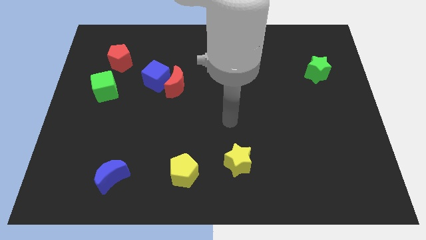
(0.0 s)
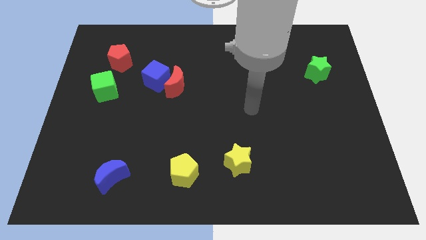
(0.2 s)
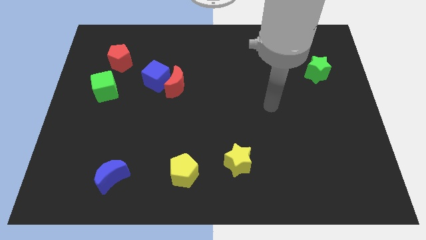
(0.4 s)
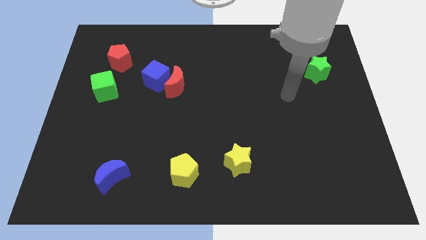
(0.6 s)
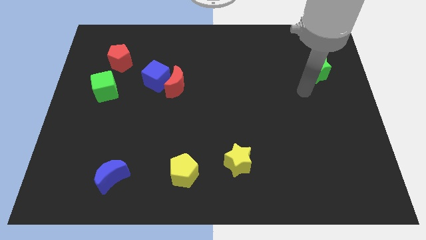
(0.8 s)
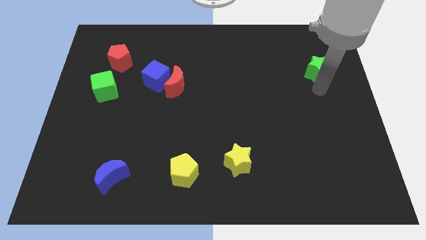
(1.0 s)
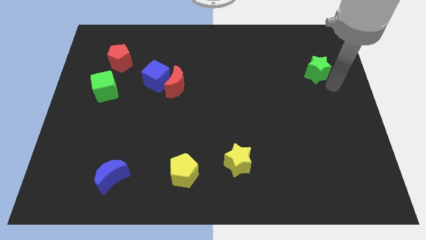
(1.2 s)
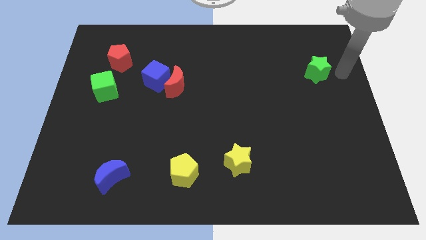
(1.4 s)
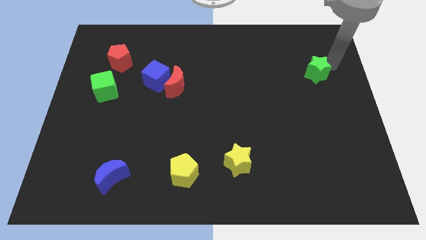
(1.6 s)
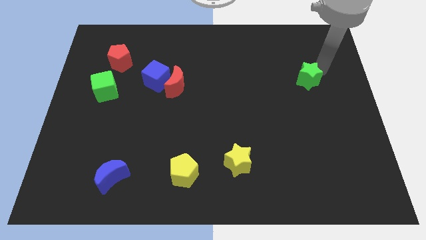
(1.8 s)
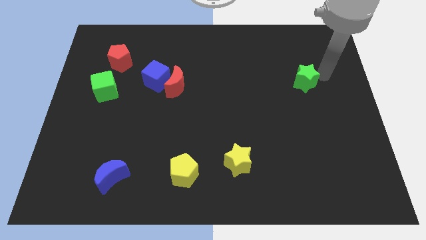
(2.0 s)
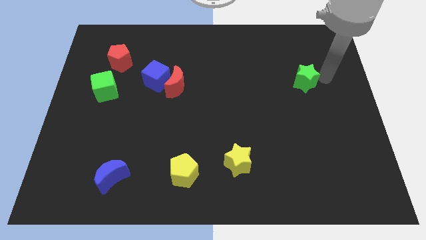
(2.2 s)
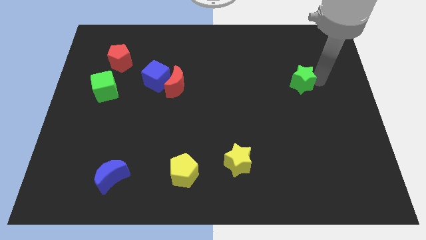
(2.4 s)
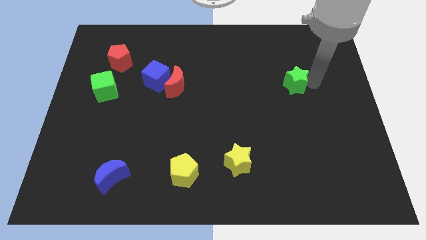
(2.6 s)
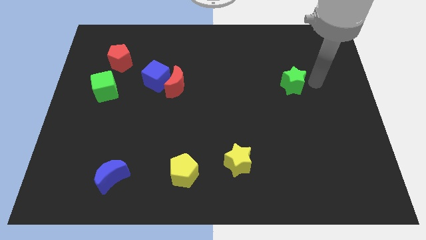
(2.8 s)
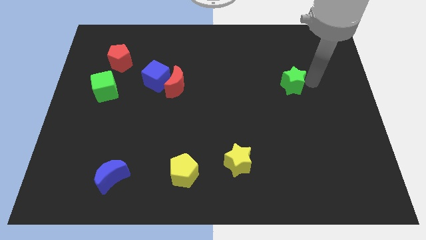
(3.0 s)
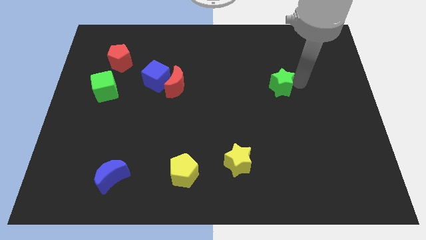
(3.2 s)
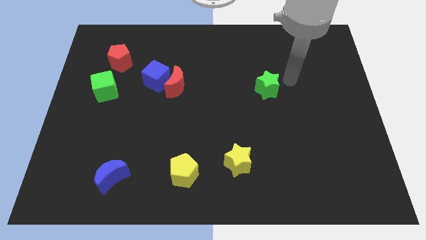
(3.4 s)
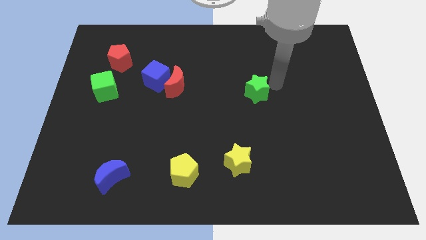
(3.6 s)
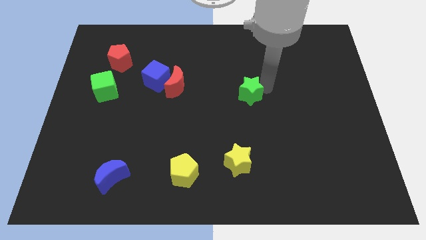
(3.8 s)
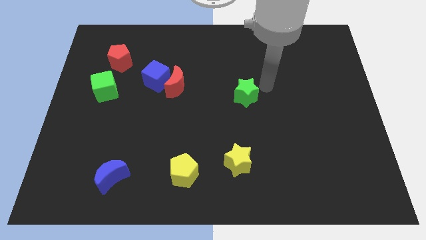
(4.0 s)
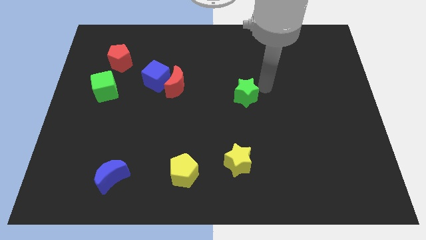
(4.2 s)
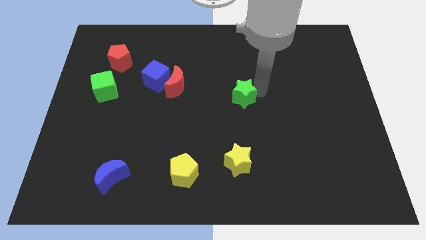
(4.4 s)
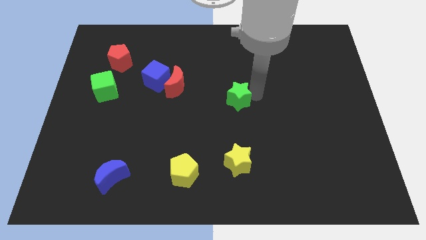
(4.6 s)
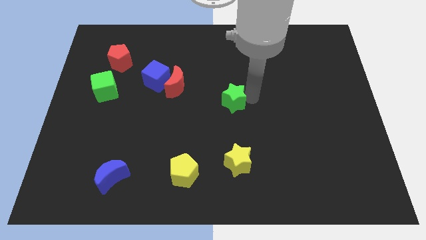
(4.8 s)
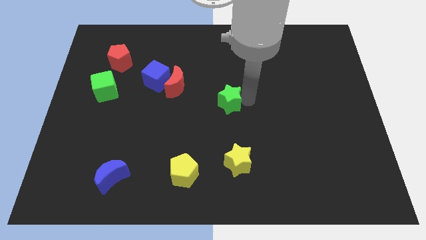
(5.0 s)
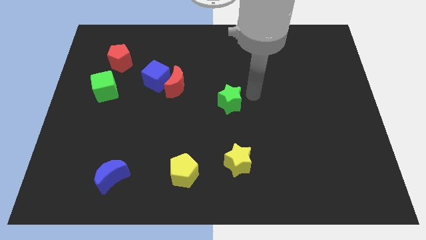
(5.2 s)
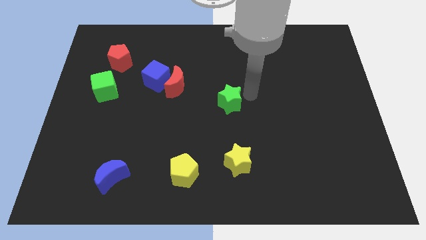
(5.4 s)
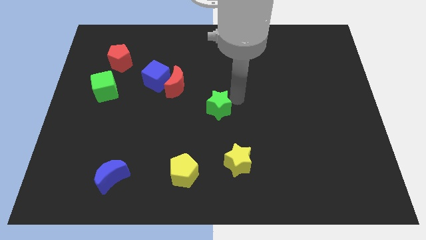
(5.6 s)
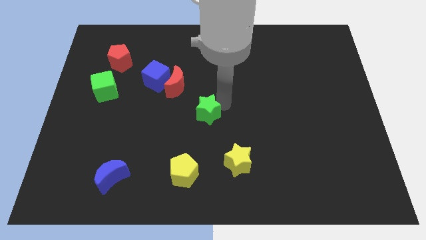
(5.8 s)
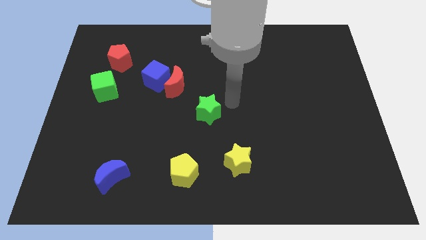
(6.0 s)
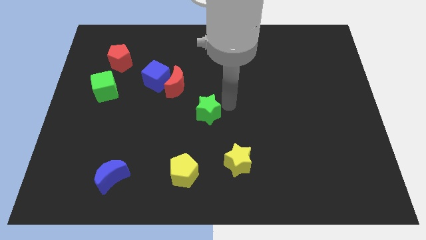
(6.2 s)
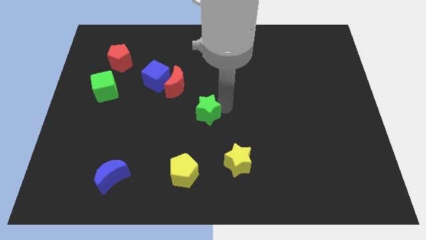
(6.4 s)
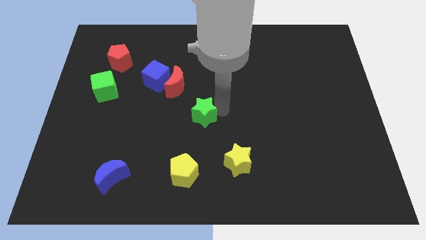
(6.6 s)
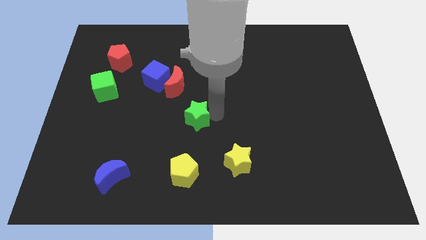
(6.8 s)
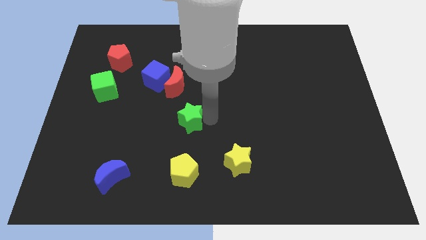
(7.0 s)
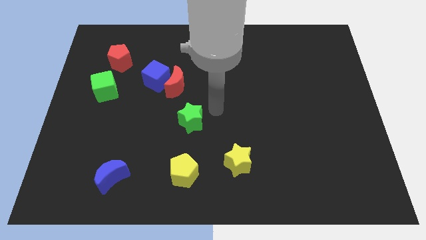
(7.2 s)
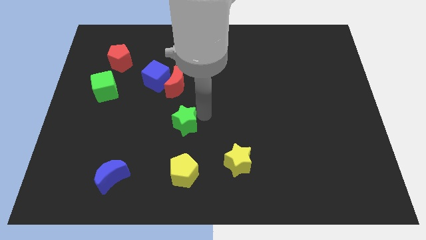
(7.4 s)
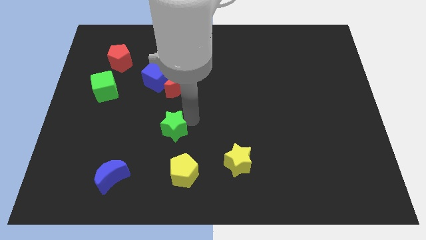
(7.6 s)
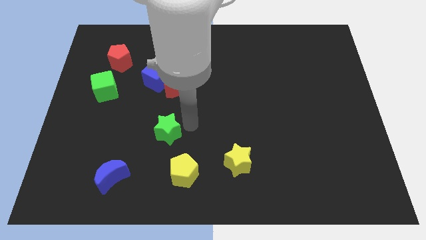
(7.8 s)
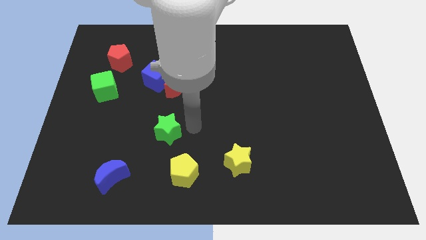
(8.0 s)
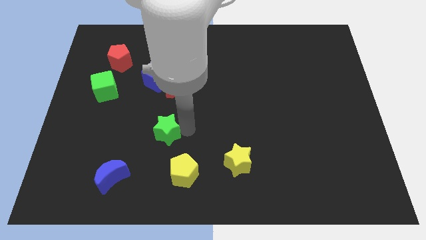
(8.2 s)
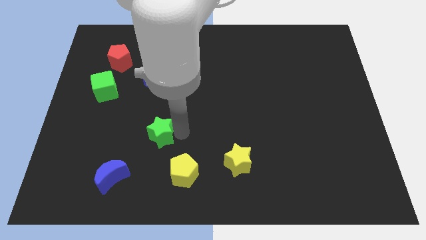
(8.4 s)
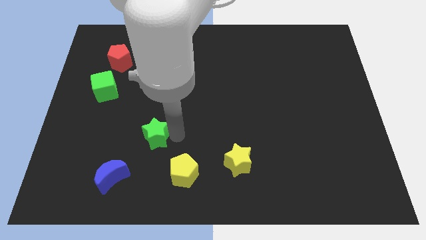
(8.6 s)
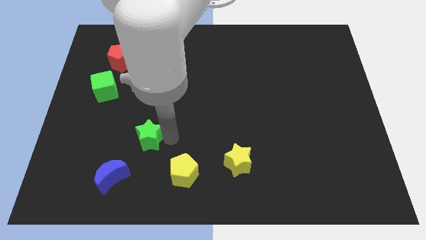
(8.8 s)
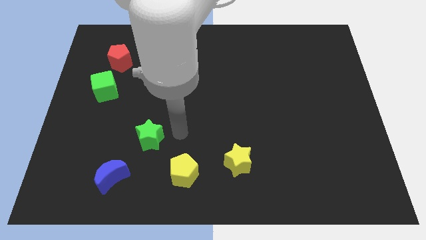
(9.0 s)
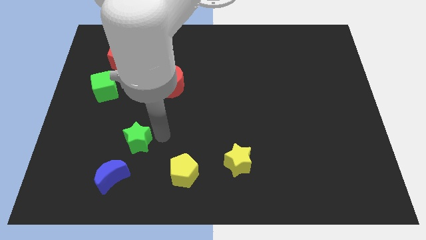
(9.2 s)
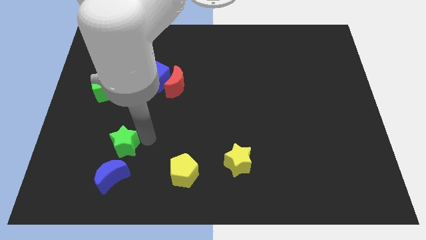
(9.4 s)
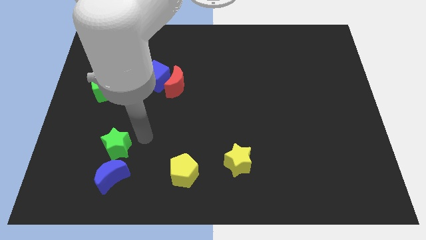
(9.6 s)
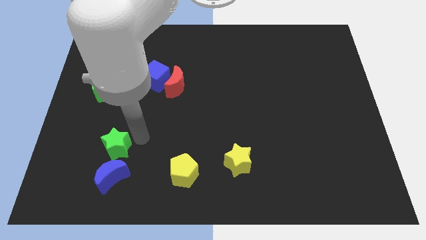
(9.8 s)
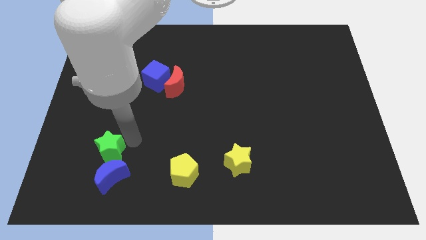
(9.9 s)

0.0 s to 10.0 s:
slide the green star to the top left of the blue moon

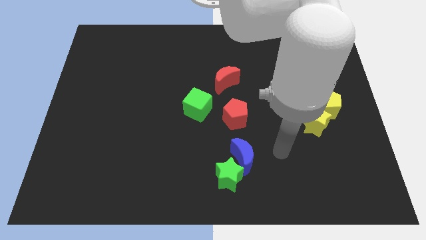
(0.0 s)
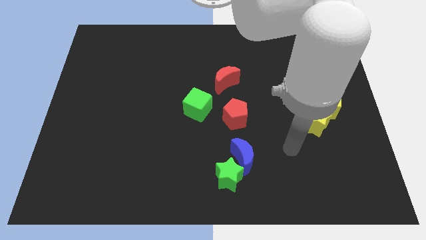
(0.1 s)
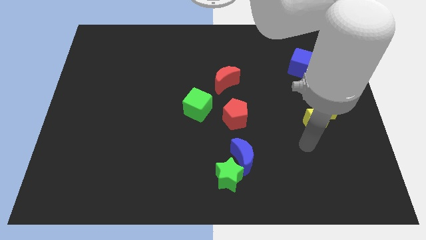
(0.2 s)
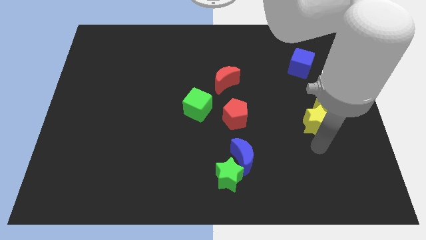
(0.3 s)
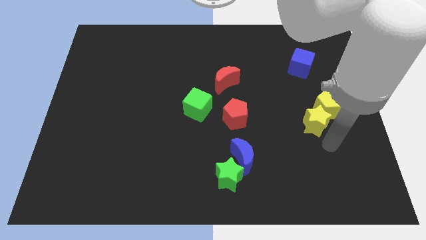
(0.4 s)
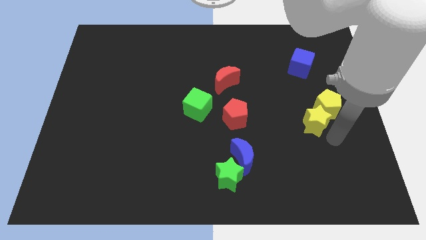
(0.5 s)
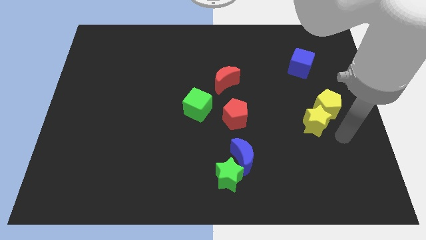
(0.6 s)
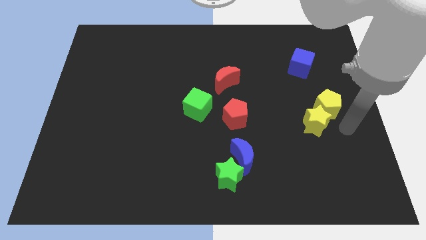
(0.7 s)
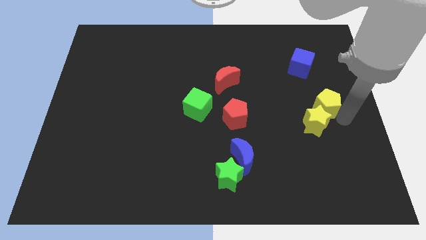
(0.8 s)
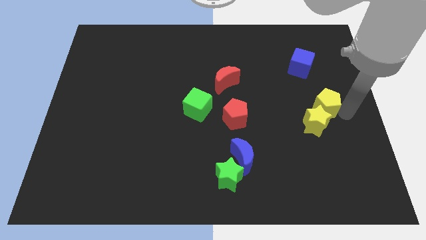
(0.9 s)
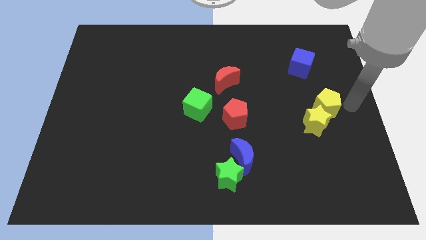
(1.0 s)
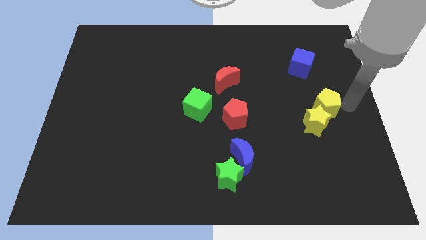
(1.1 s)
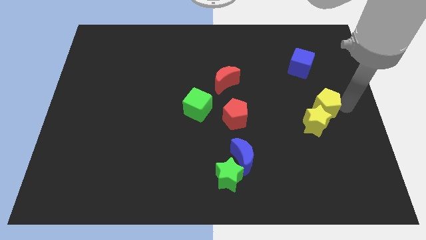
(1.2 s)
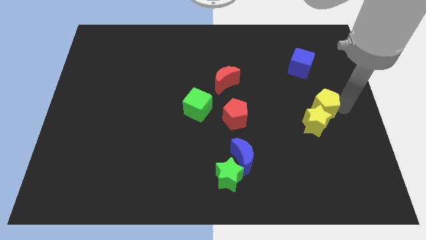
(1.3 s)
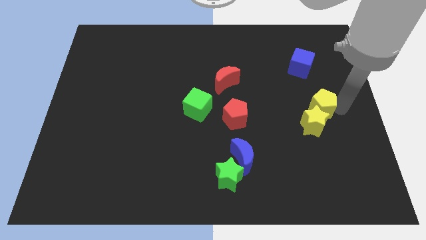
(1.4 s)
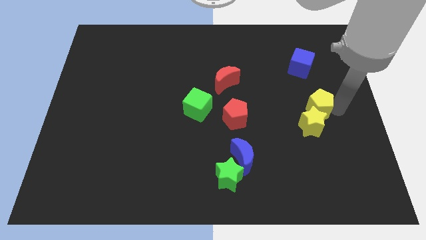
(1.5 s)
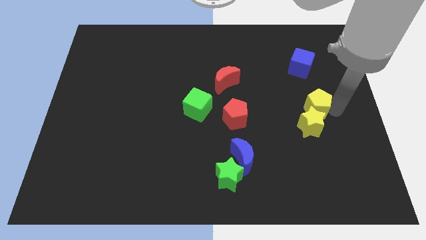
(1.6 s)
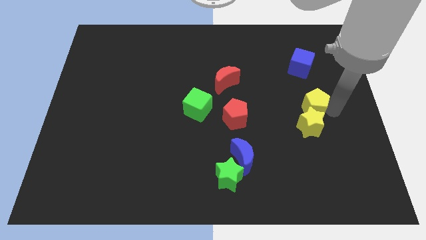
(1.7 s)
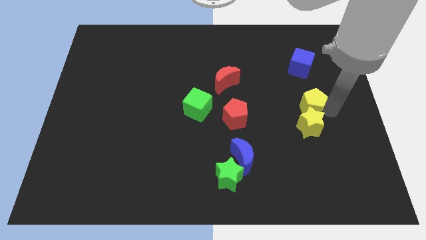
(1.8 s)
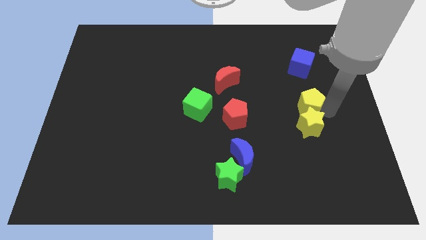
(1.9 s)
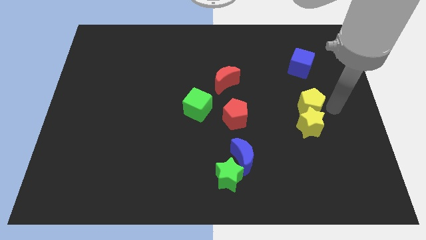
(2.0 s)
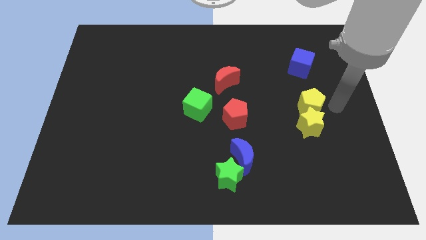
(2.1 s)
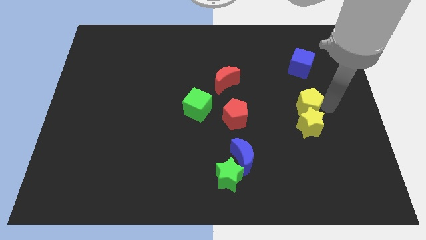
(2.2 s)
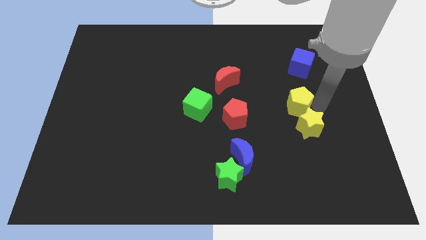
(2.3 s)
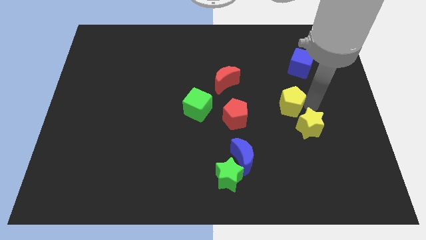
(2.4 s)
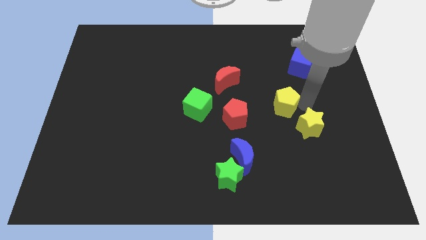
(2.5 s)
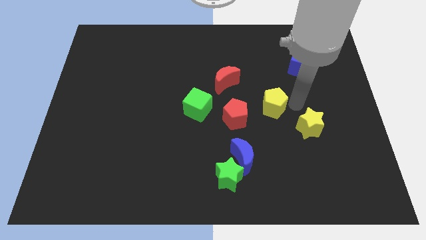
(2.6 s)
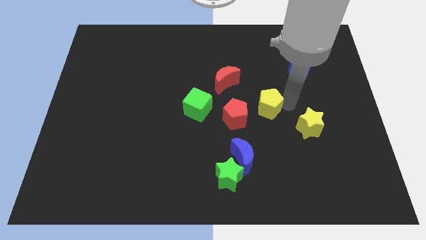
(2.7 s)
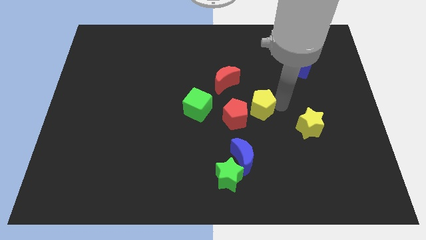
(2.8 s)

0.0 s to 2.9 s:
move the yellow pentagon to the right of the green cube
